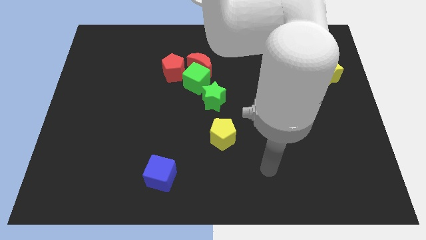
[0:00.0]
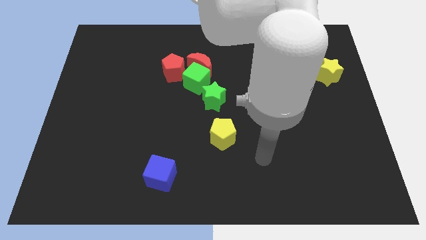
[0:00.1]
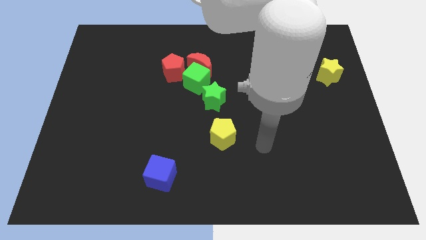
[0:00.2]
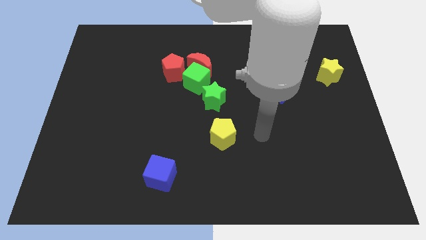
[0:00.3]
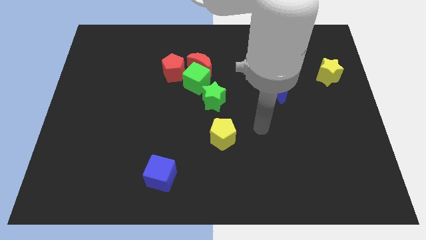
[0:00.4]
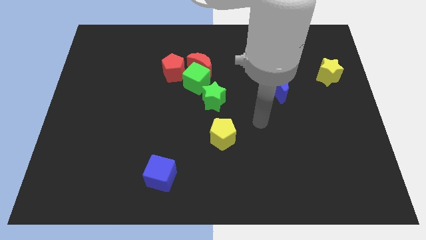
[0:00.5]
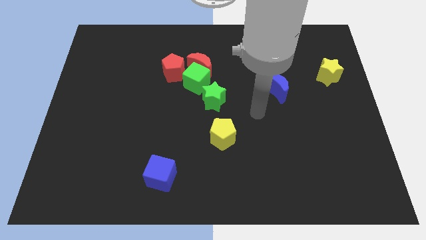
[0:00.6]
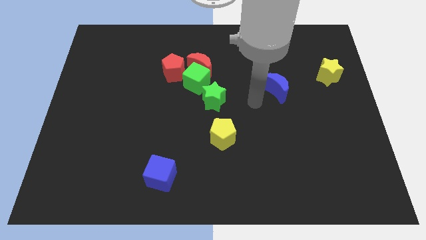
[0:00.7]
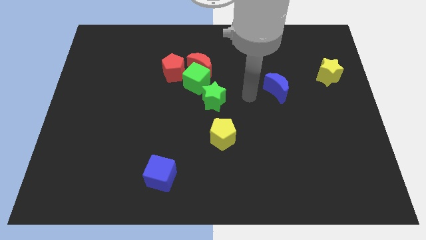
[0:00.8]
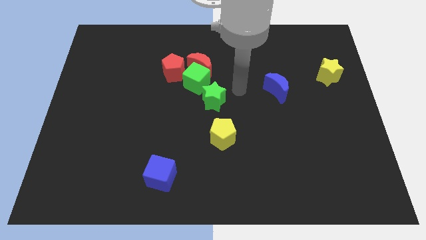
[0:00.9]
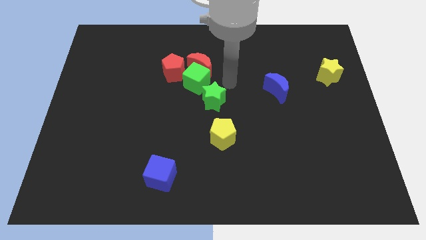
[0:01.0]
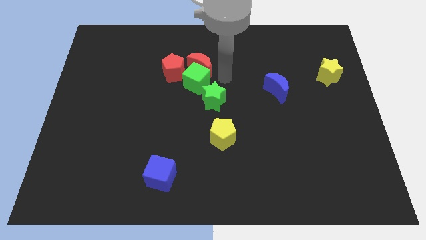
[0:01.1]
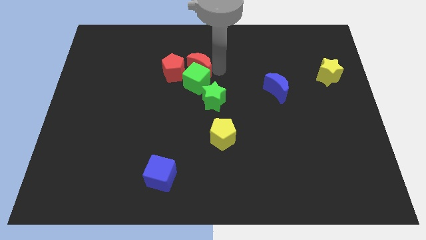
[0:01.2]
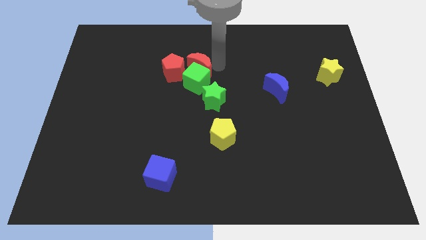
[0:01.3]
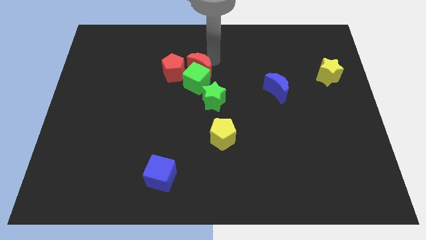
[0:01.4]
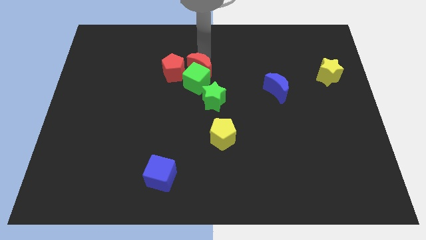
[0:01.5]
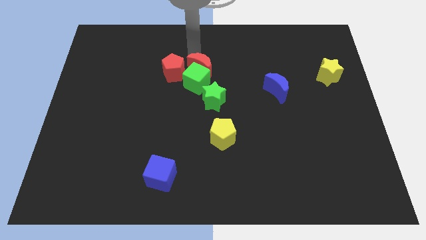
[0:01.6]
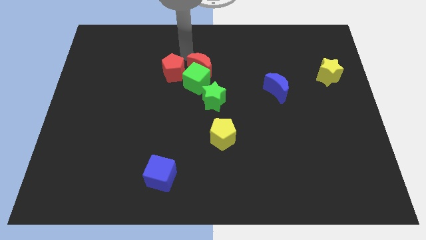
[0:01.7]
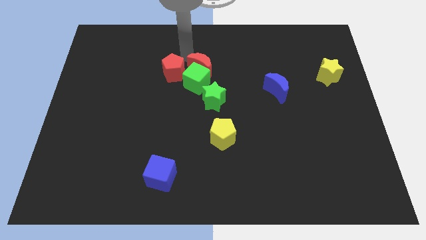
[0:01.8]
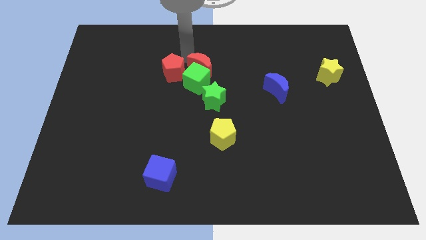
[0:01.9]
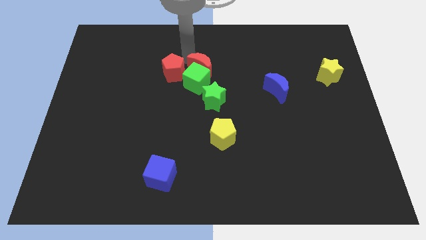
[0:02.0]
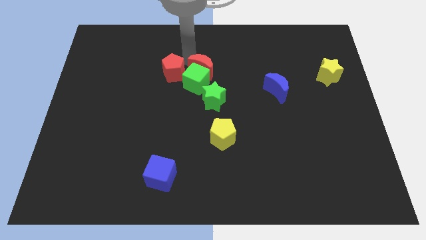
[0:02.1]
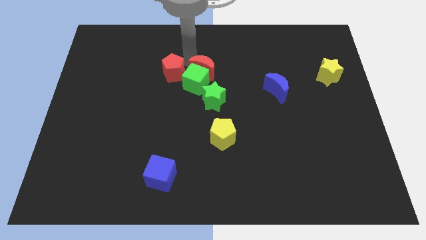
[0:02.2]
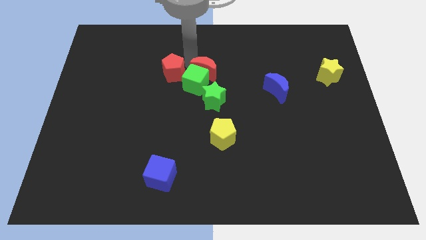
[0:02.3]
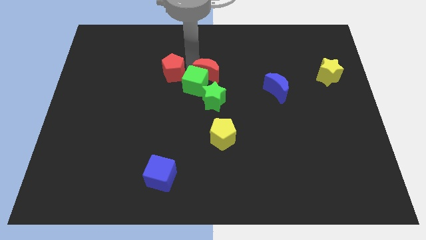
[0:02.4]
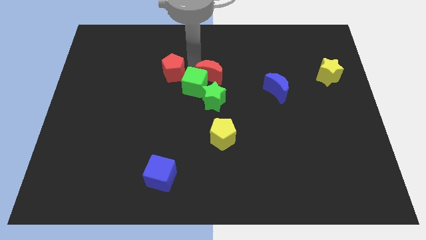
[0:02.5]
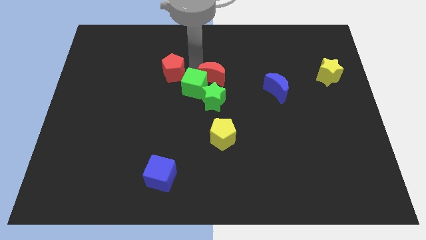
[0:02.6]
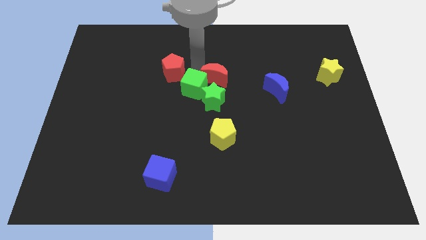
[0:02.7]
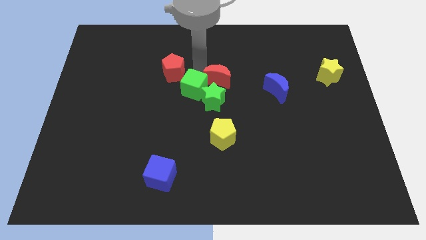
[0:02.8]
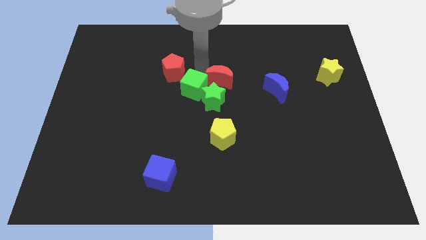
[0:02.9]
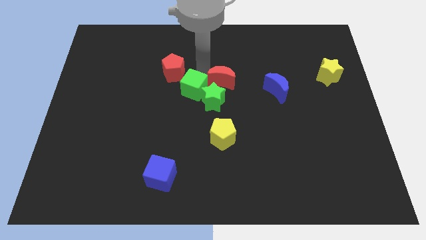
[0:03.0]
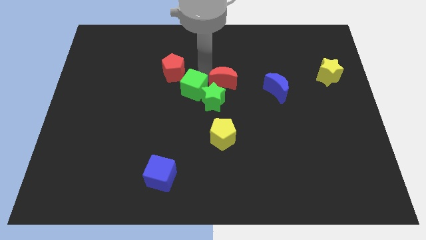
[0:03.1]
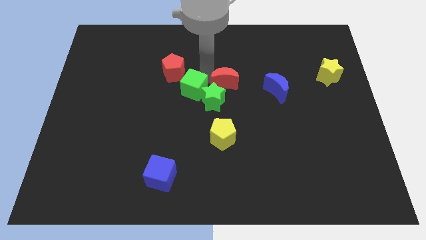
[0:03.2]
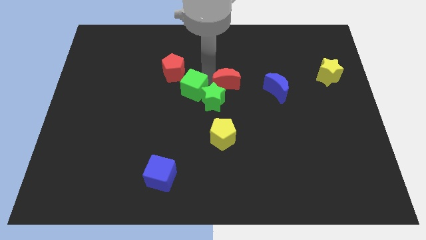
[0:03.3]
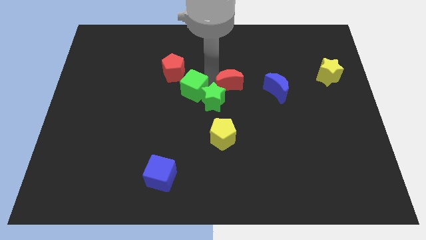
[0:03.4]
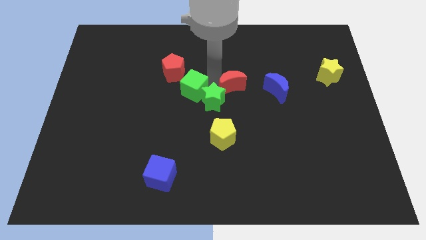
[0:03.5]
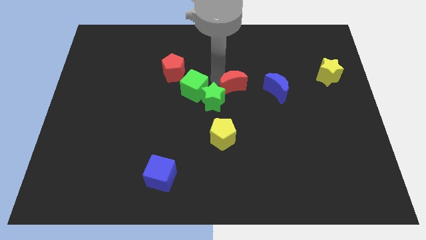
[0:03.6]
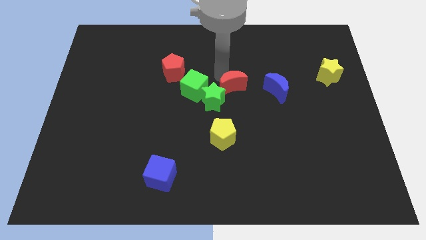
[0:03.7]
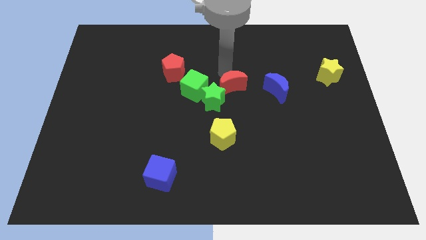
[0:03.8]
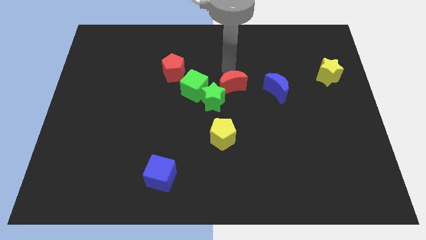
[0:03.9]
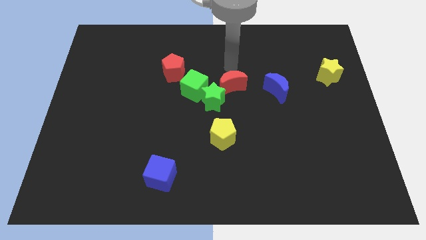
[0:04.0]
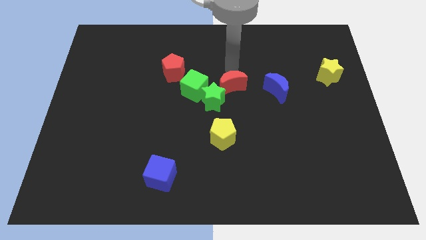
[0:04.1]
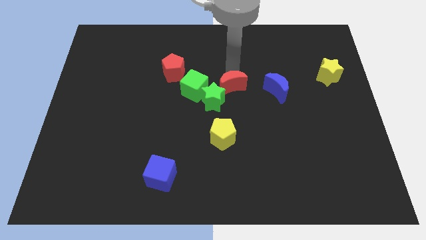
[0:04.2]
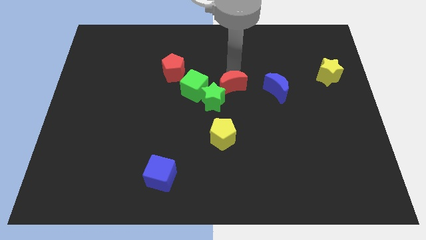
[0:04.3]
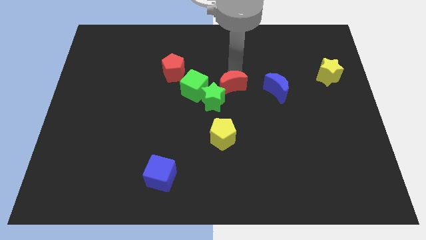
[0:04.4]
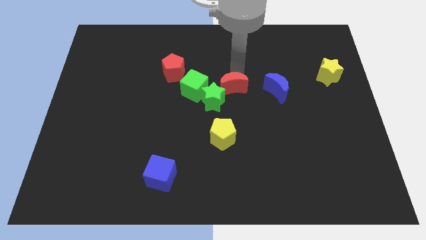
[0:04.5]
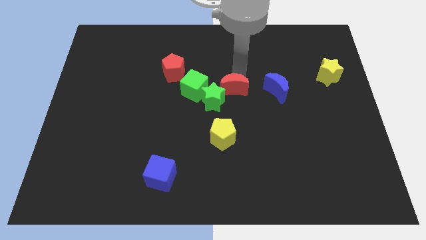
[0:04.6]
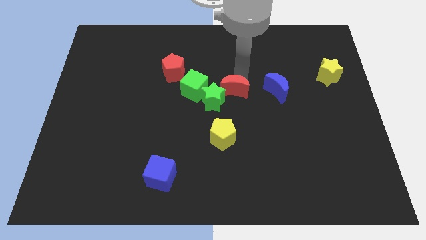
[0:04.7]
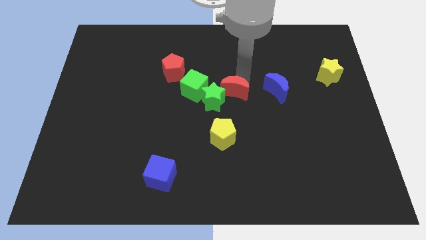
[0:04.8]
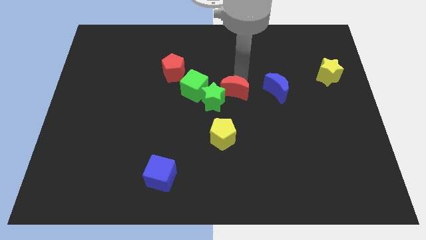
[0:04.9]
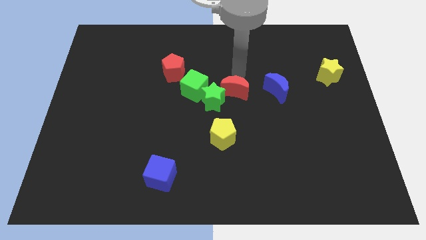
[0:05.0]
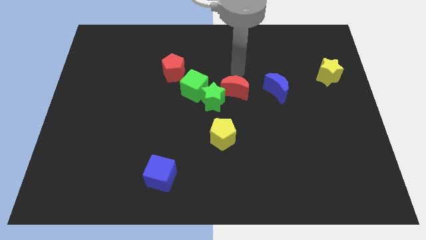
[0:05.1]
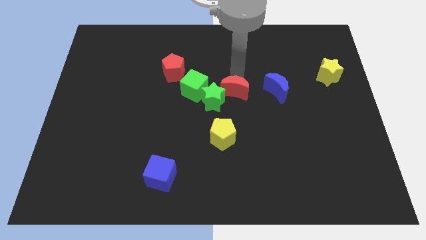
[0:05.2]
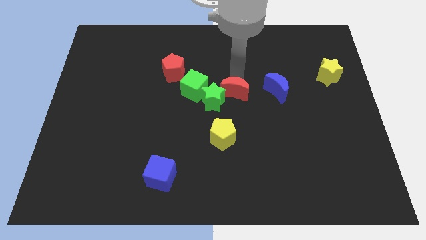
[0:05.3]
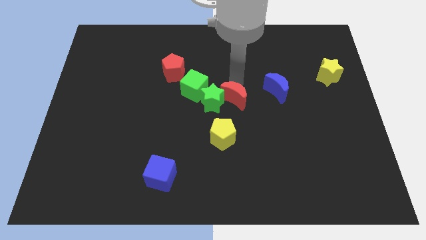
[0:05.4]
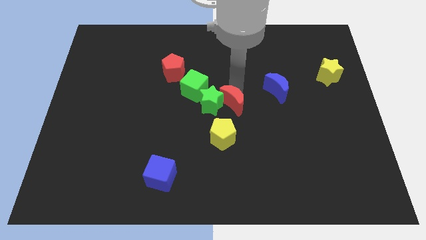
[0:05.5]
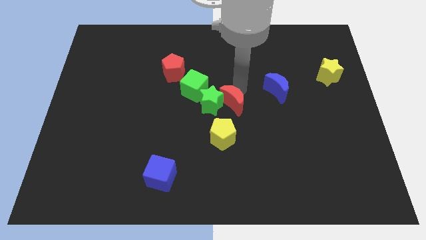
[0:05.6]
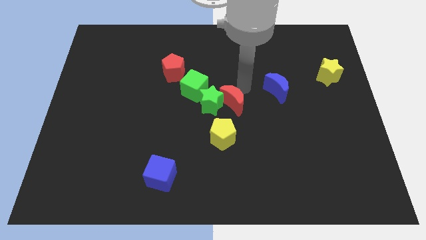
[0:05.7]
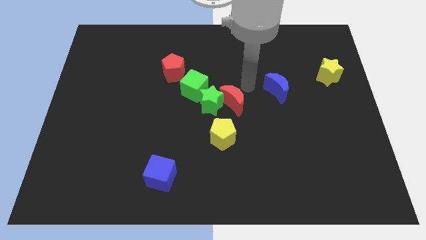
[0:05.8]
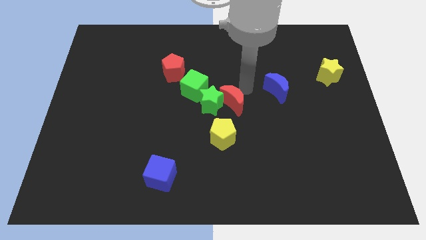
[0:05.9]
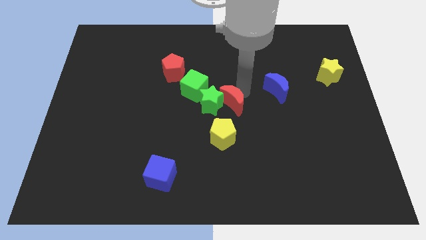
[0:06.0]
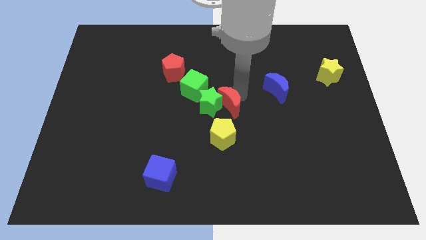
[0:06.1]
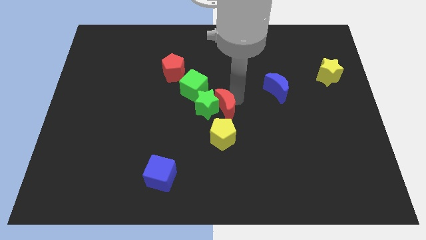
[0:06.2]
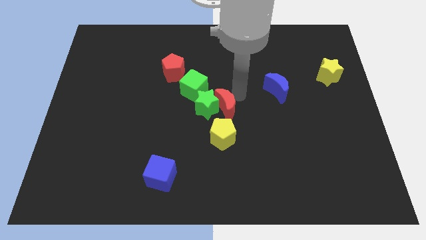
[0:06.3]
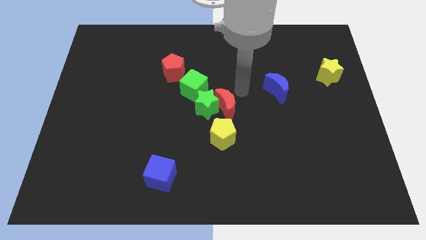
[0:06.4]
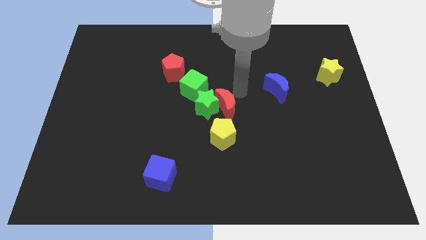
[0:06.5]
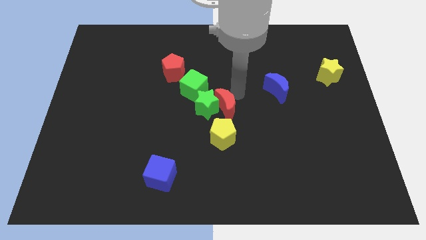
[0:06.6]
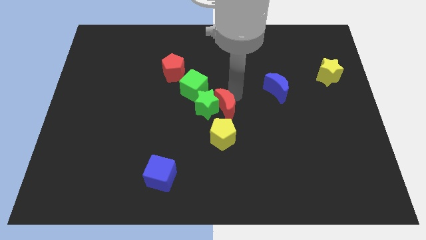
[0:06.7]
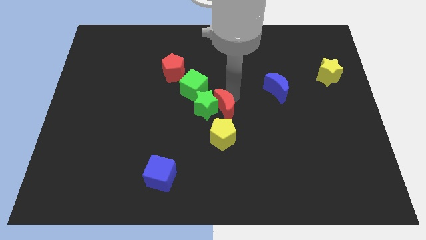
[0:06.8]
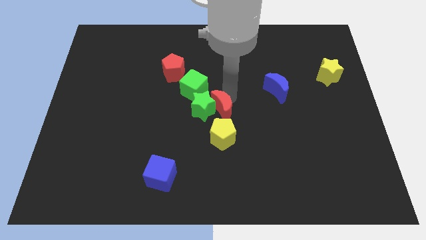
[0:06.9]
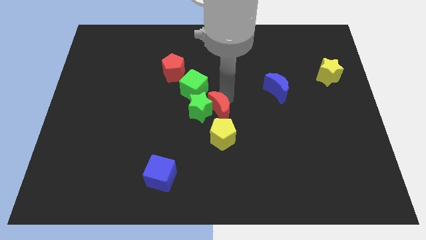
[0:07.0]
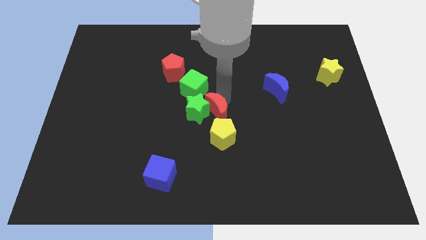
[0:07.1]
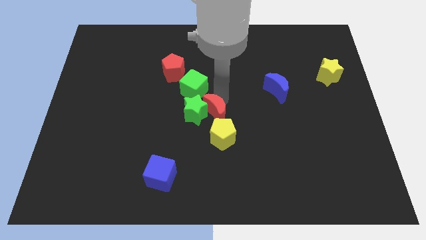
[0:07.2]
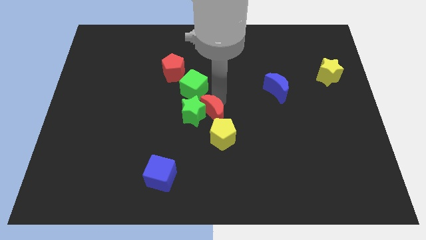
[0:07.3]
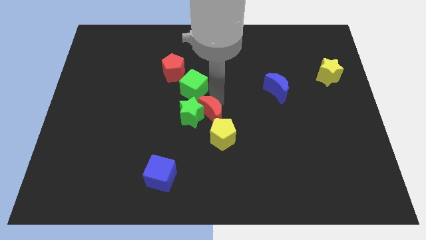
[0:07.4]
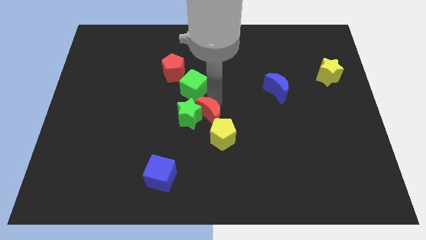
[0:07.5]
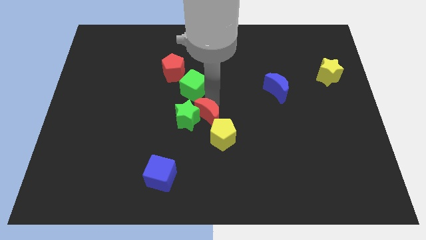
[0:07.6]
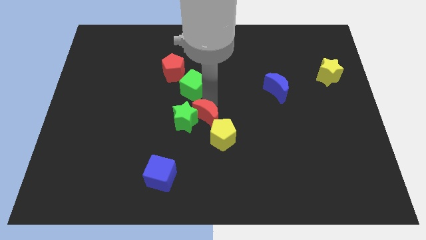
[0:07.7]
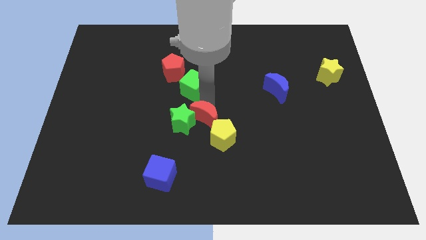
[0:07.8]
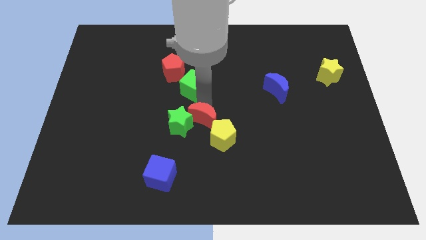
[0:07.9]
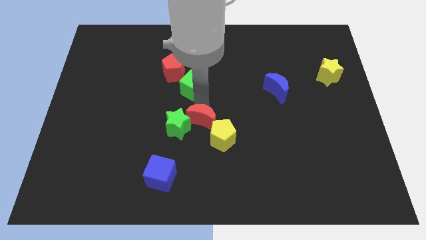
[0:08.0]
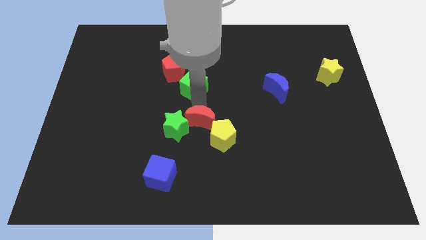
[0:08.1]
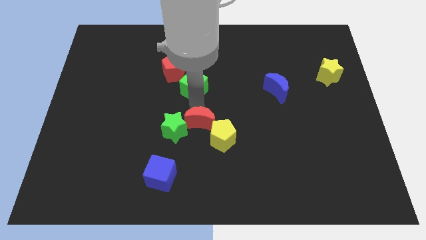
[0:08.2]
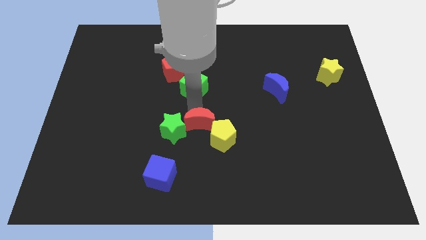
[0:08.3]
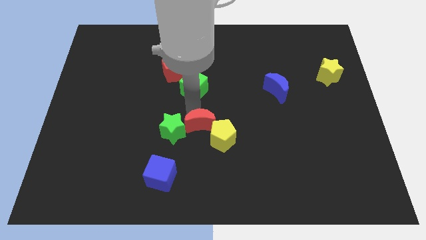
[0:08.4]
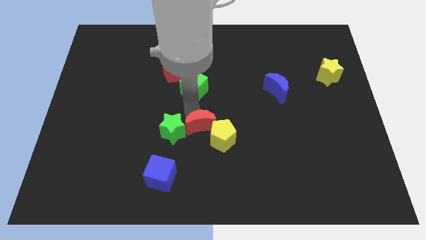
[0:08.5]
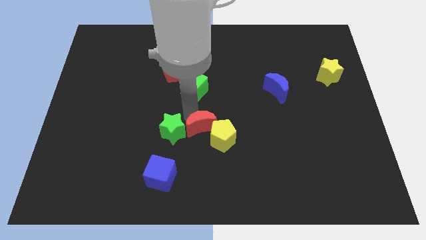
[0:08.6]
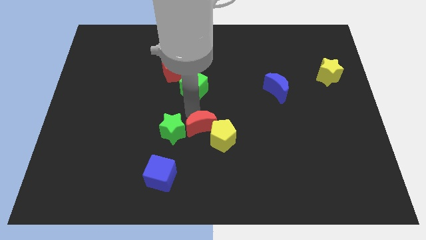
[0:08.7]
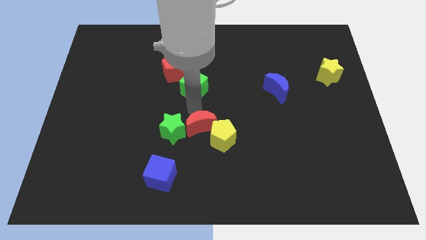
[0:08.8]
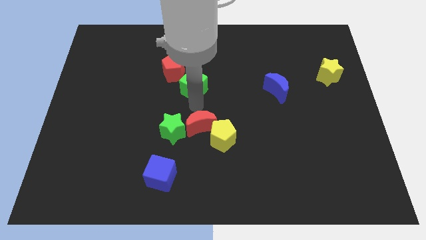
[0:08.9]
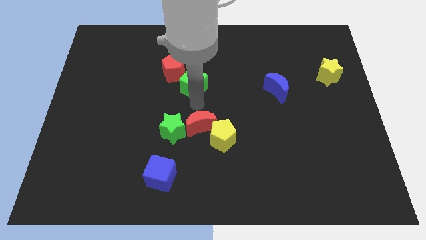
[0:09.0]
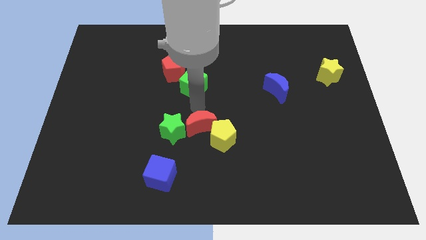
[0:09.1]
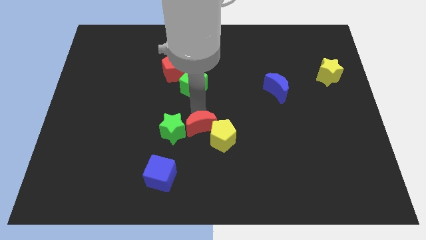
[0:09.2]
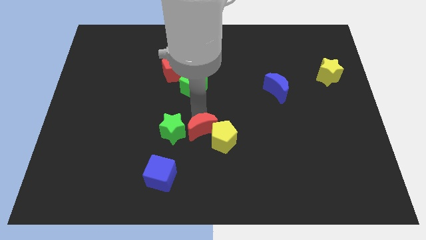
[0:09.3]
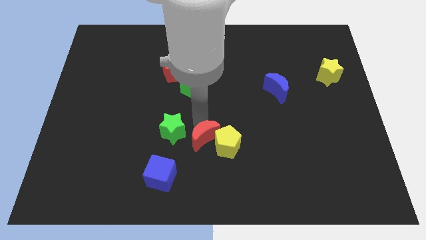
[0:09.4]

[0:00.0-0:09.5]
slide the red moon down
